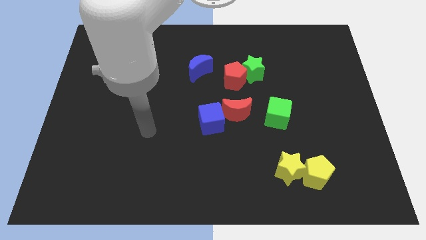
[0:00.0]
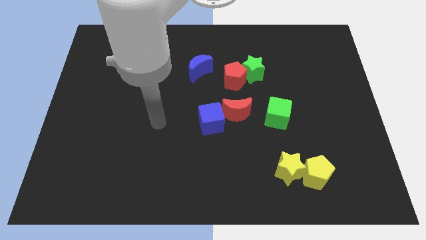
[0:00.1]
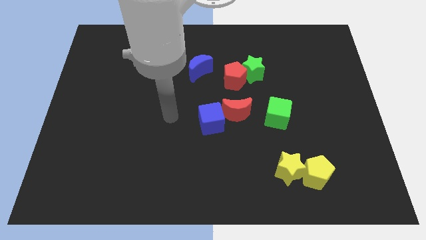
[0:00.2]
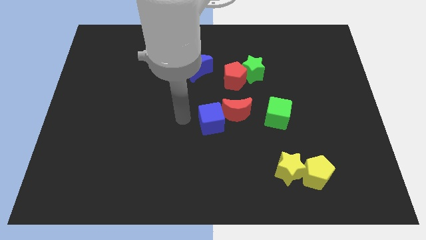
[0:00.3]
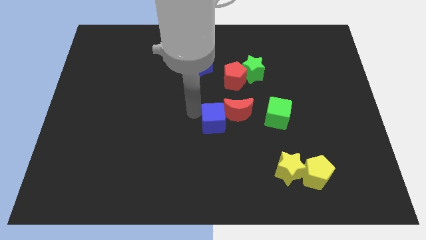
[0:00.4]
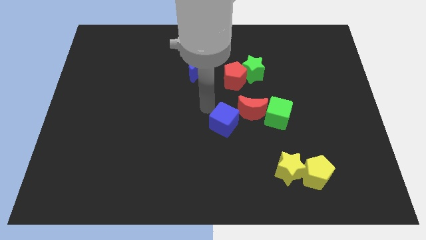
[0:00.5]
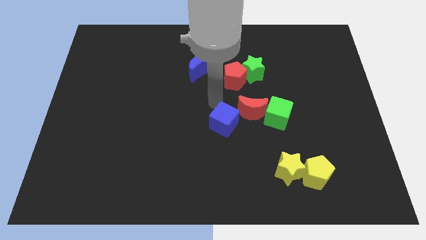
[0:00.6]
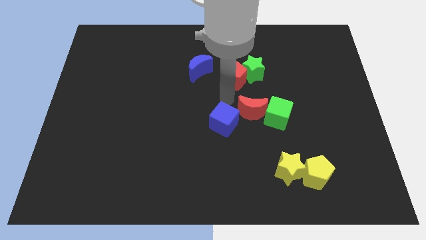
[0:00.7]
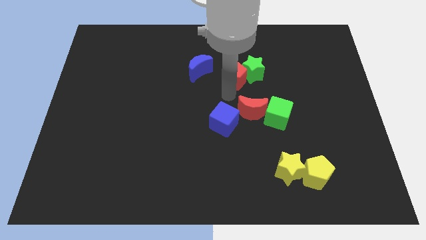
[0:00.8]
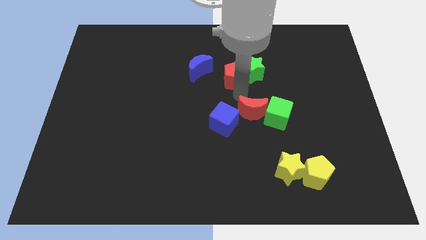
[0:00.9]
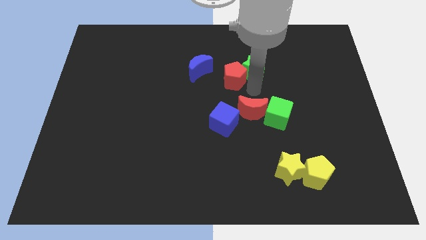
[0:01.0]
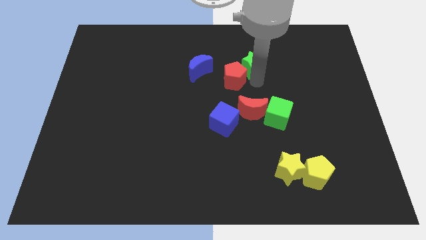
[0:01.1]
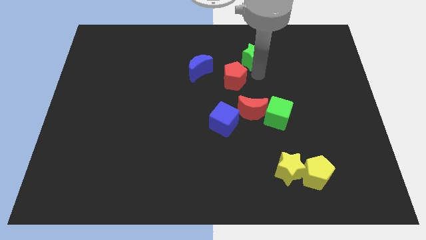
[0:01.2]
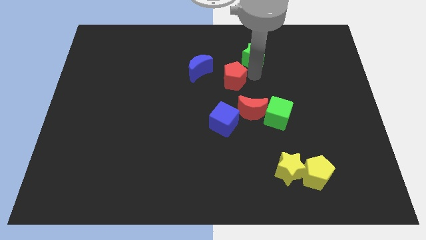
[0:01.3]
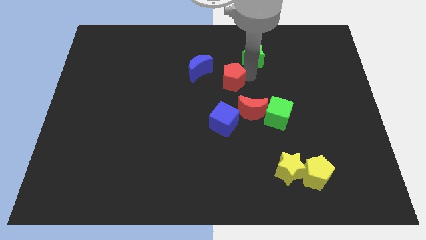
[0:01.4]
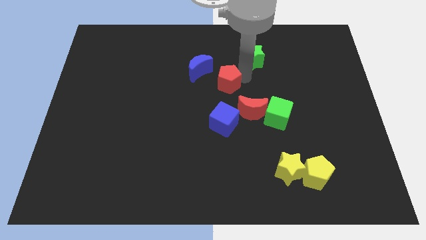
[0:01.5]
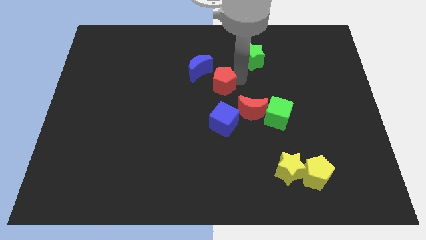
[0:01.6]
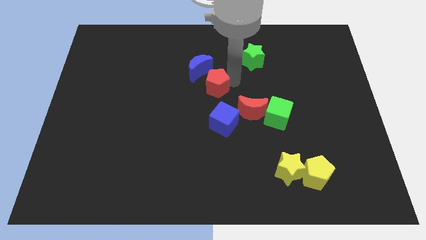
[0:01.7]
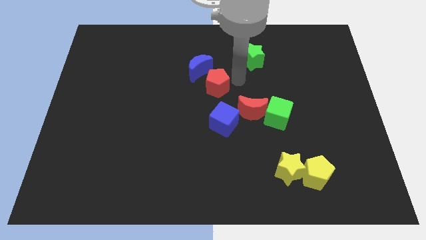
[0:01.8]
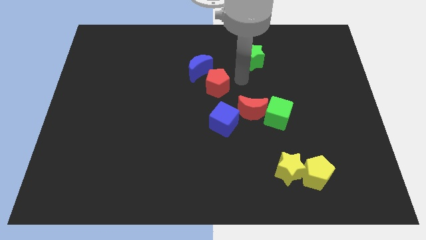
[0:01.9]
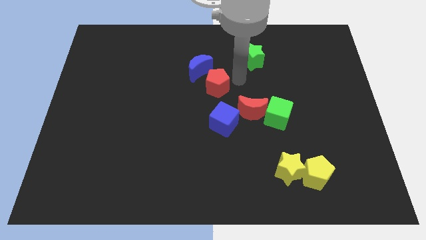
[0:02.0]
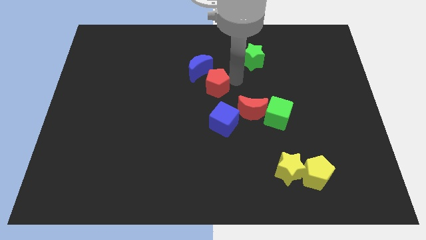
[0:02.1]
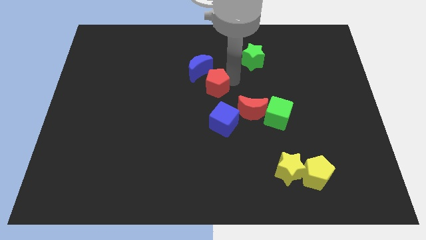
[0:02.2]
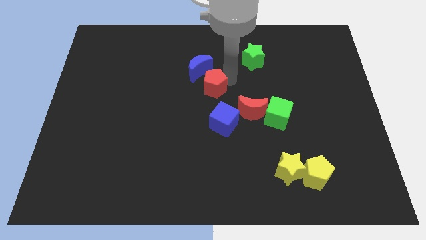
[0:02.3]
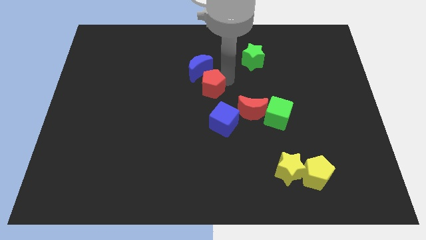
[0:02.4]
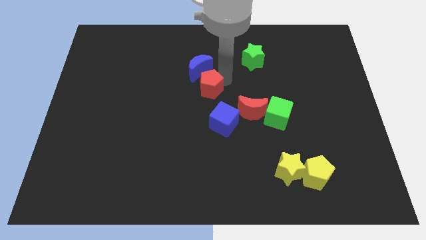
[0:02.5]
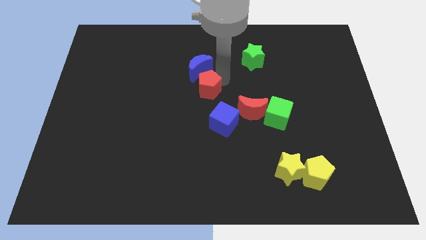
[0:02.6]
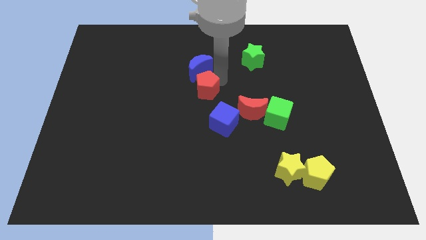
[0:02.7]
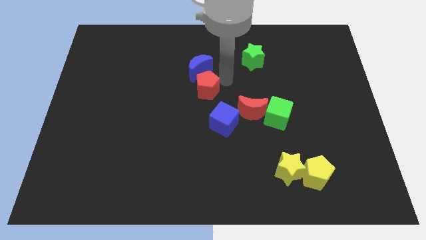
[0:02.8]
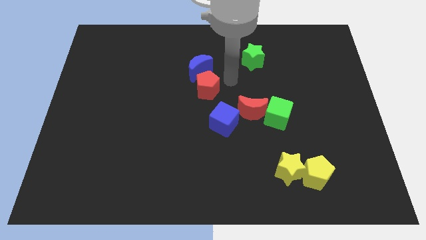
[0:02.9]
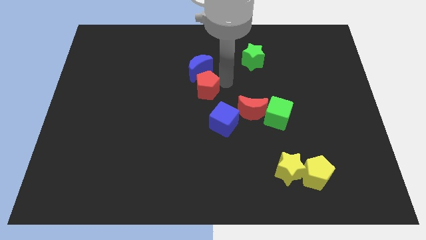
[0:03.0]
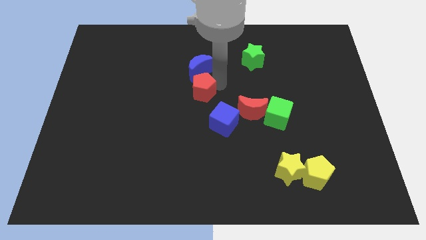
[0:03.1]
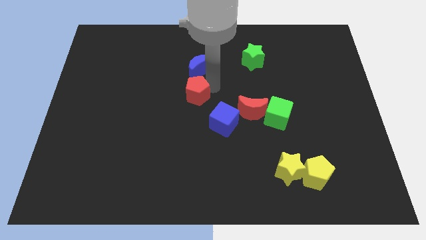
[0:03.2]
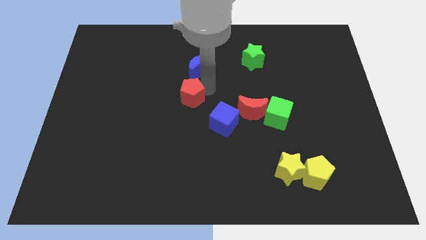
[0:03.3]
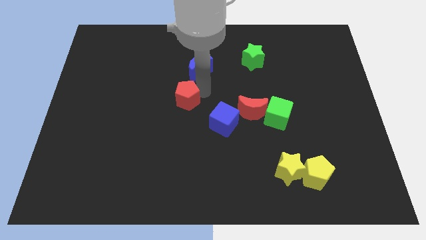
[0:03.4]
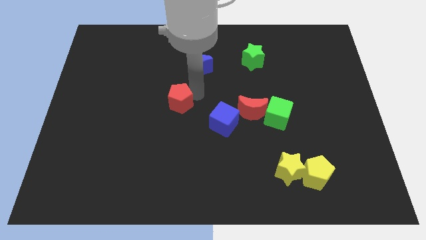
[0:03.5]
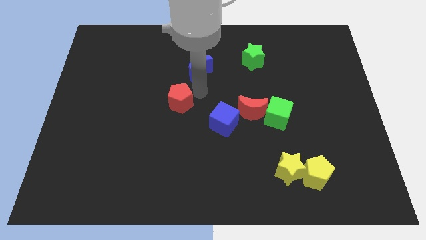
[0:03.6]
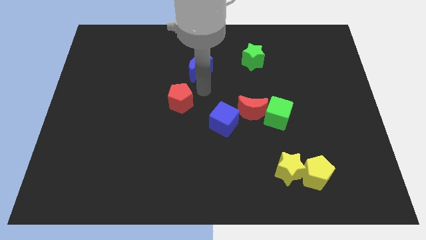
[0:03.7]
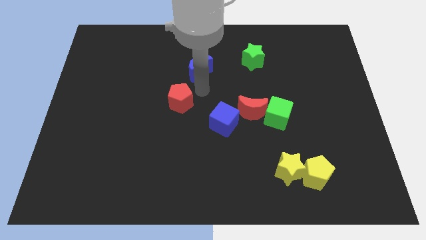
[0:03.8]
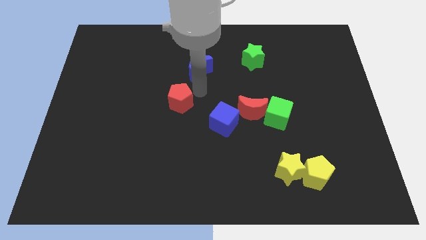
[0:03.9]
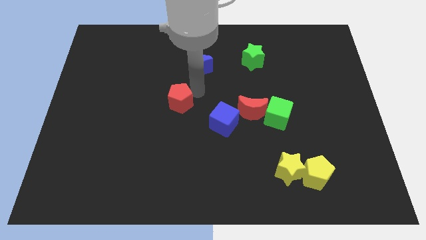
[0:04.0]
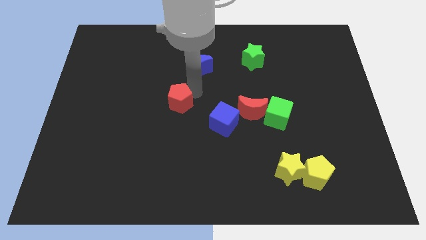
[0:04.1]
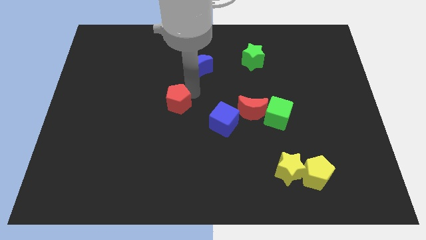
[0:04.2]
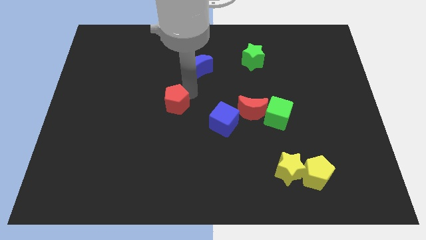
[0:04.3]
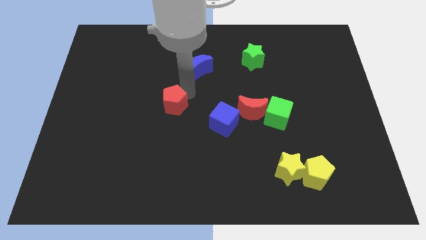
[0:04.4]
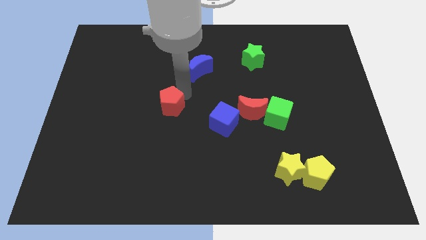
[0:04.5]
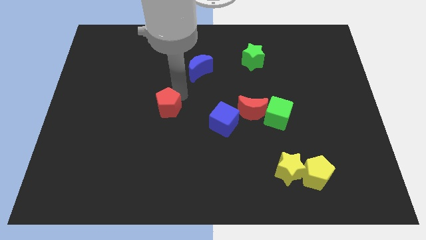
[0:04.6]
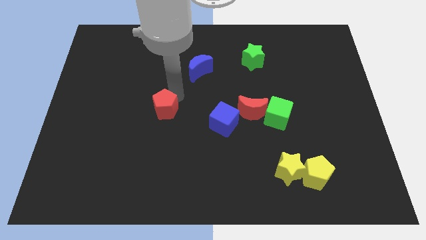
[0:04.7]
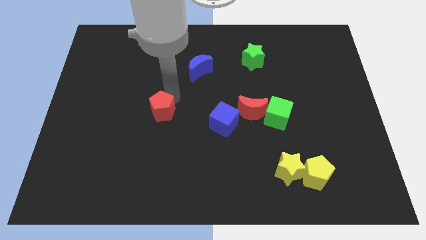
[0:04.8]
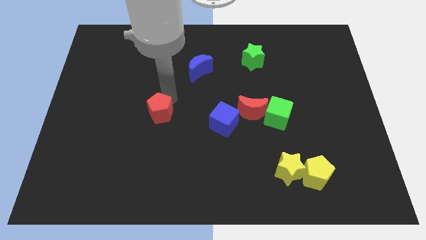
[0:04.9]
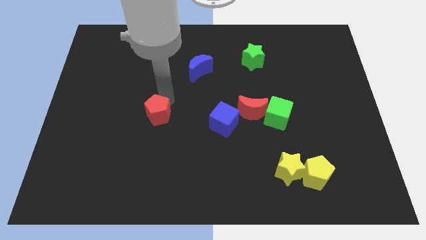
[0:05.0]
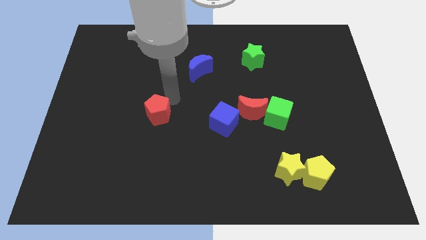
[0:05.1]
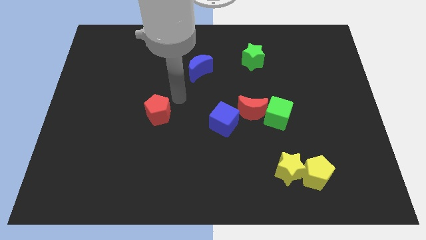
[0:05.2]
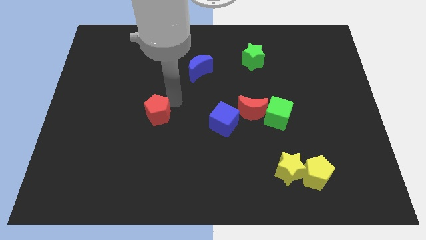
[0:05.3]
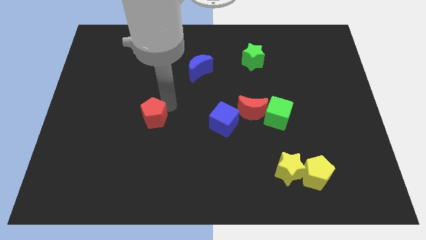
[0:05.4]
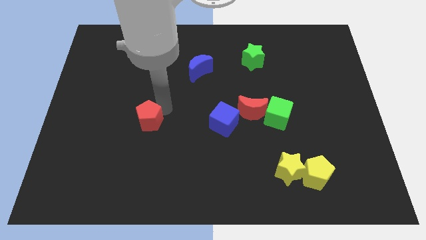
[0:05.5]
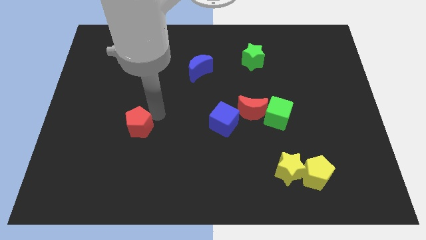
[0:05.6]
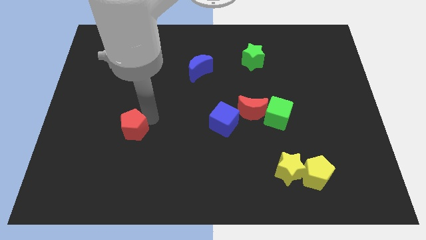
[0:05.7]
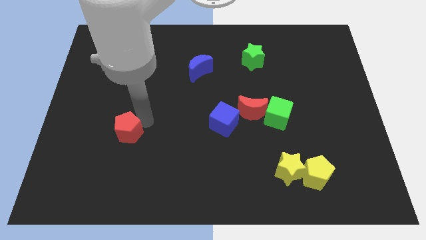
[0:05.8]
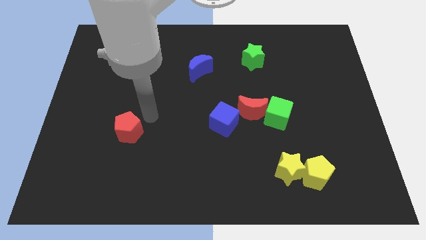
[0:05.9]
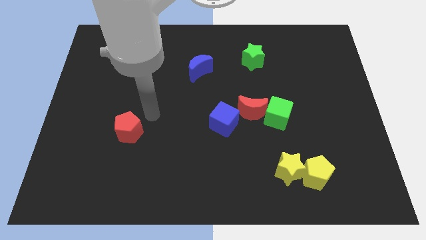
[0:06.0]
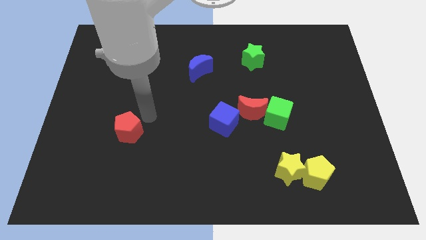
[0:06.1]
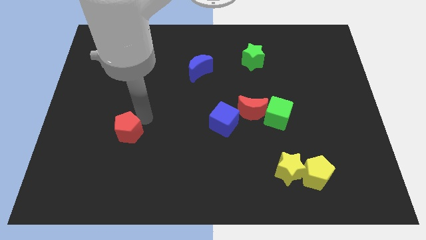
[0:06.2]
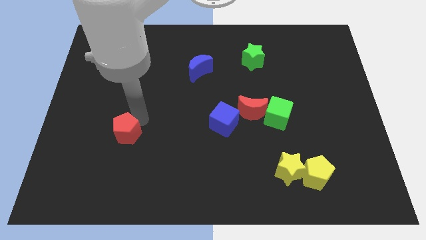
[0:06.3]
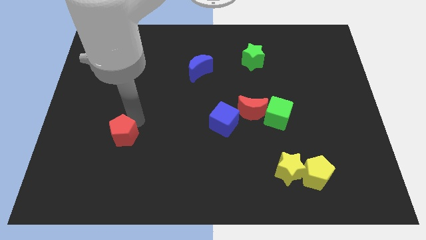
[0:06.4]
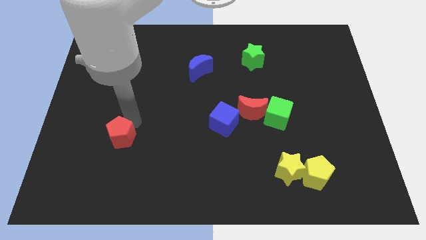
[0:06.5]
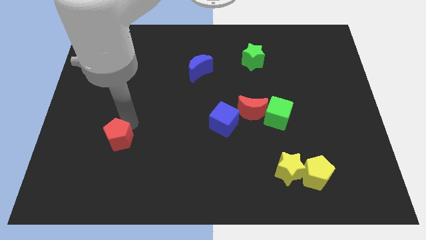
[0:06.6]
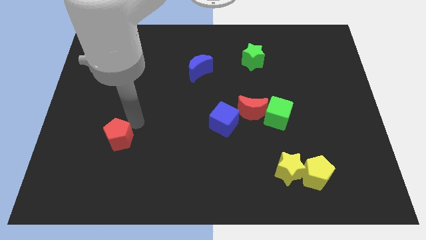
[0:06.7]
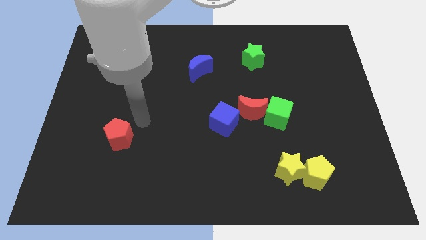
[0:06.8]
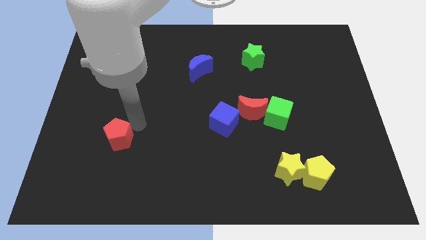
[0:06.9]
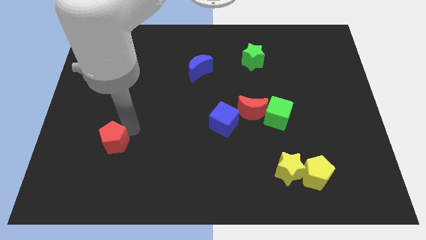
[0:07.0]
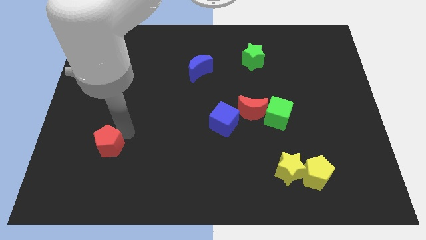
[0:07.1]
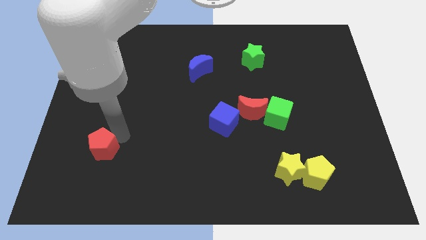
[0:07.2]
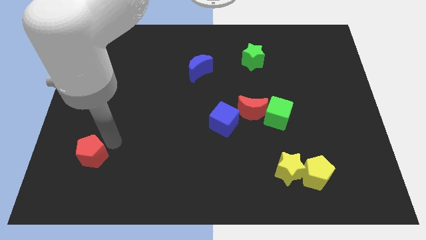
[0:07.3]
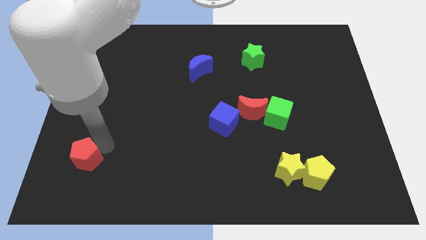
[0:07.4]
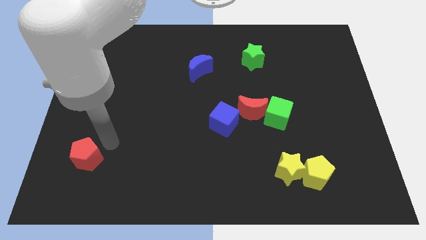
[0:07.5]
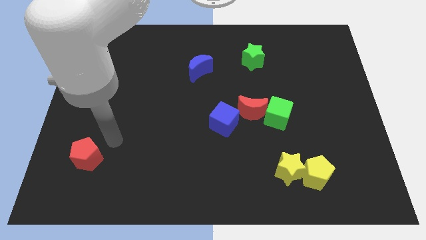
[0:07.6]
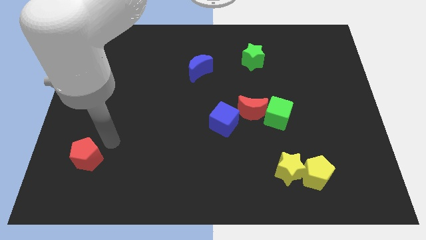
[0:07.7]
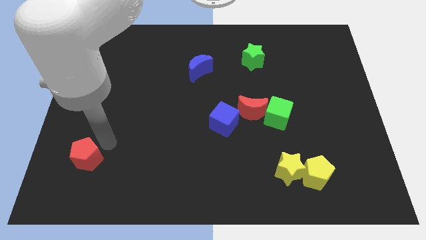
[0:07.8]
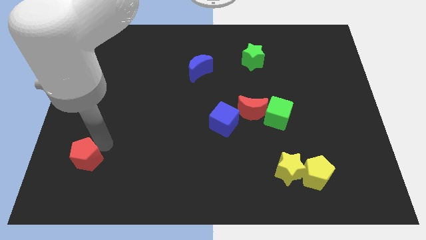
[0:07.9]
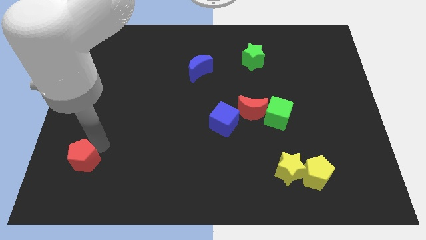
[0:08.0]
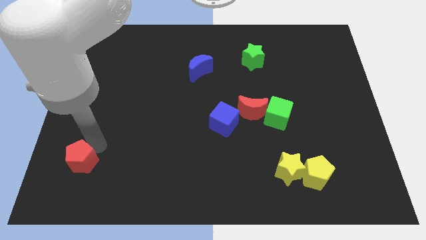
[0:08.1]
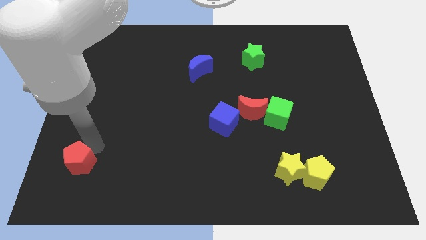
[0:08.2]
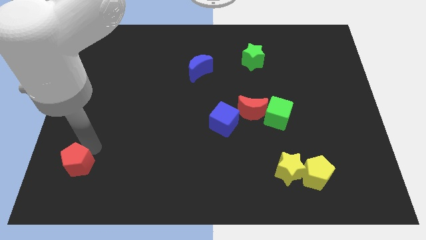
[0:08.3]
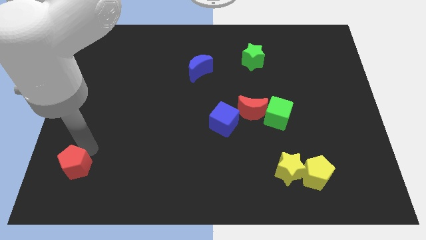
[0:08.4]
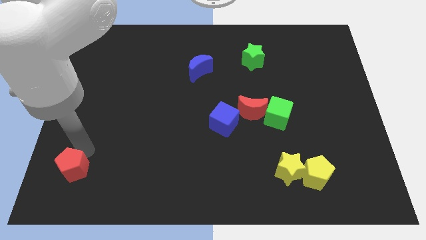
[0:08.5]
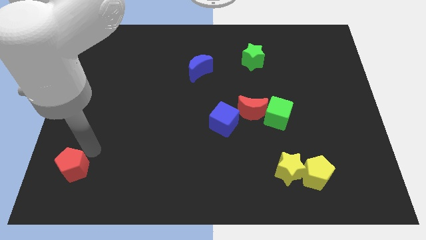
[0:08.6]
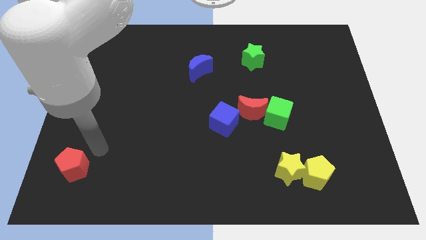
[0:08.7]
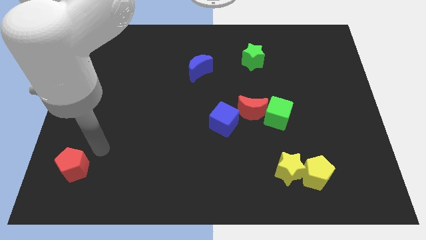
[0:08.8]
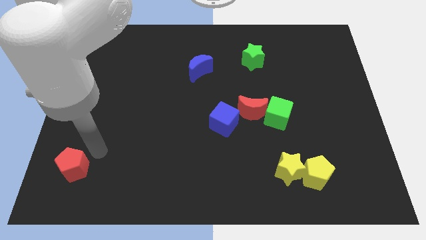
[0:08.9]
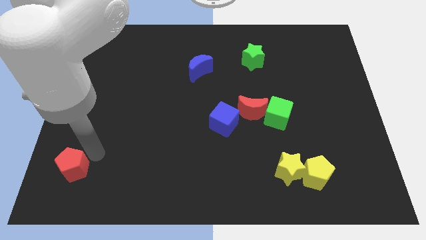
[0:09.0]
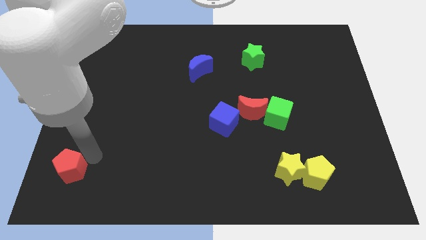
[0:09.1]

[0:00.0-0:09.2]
put the red pentagon to the lower left corner
